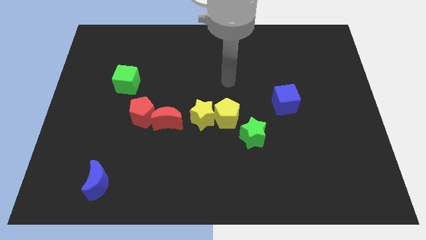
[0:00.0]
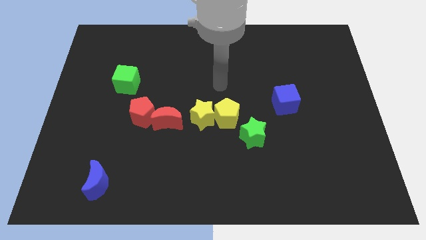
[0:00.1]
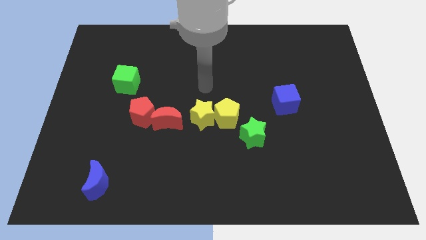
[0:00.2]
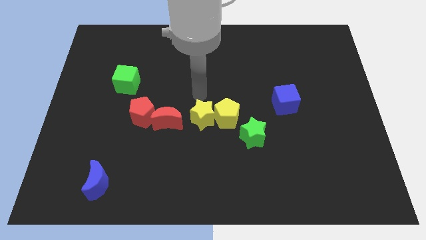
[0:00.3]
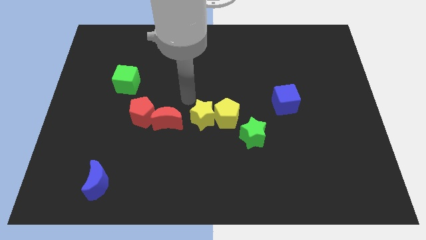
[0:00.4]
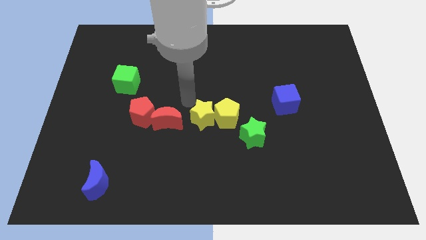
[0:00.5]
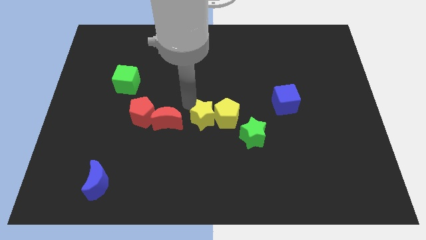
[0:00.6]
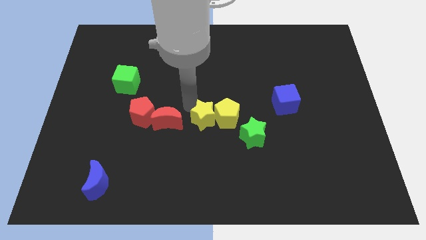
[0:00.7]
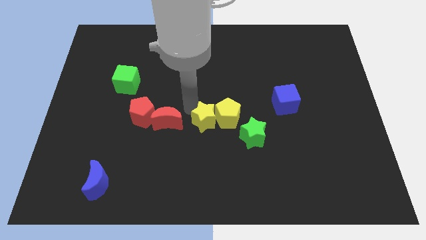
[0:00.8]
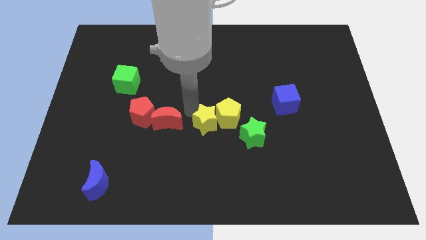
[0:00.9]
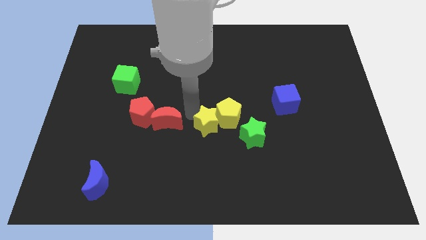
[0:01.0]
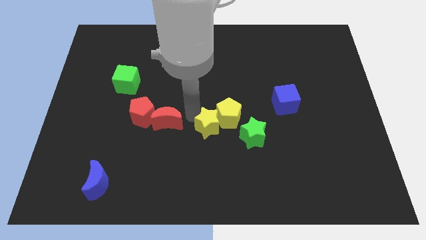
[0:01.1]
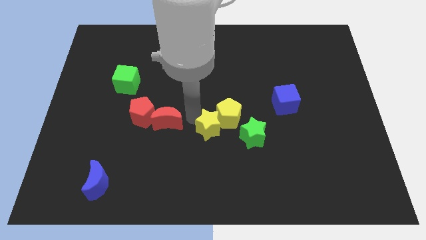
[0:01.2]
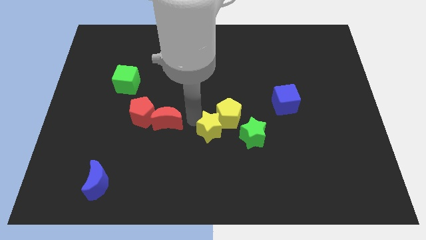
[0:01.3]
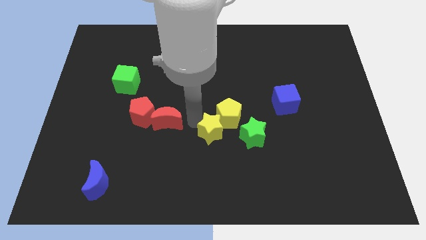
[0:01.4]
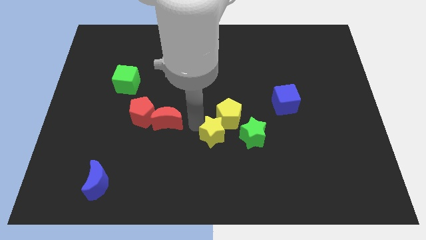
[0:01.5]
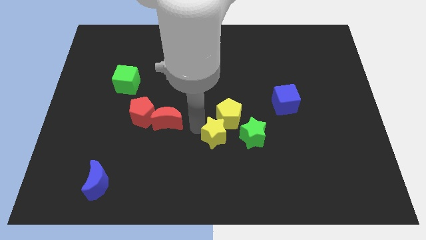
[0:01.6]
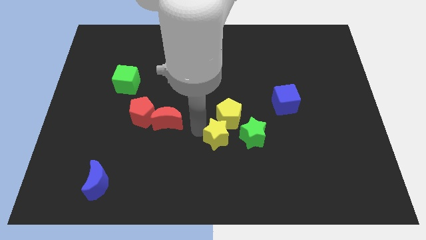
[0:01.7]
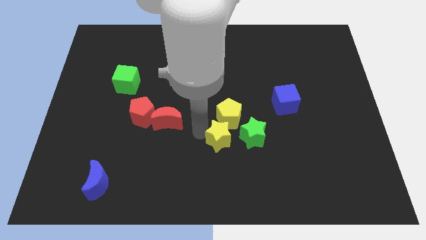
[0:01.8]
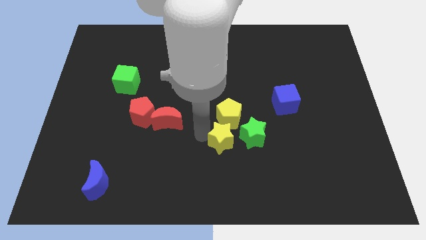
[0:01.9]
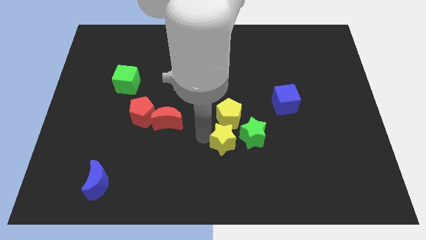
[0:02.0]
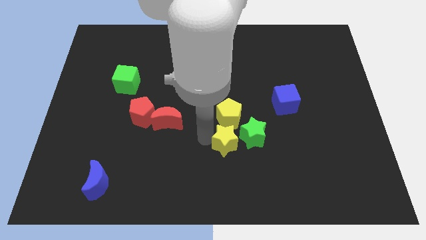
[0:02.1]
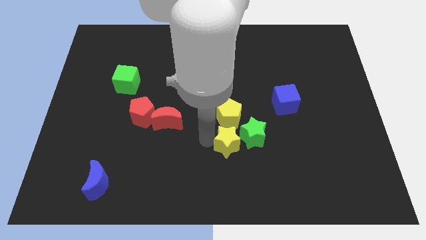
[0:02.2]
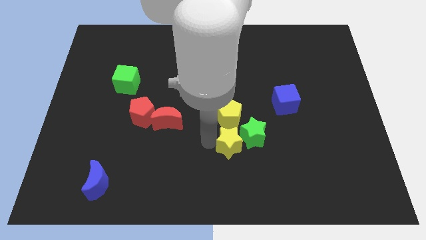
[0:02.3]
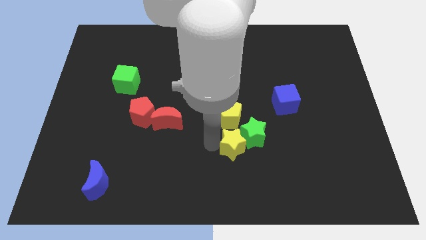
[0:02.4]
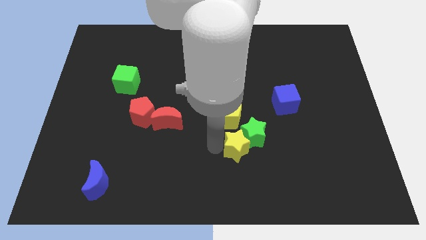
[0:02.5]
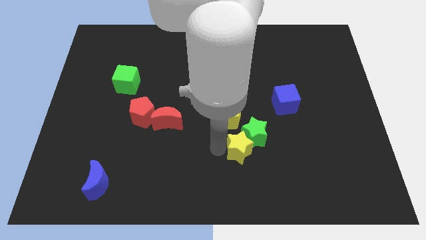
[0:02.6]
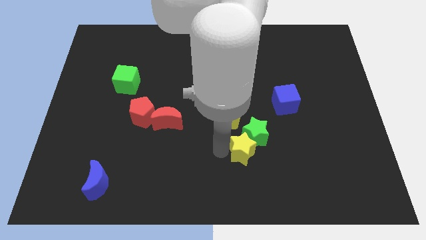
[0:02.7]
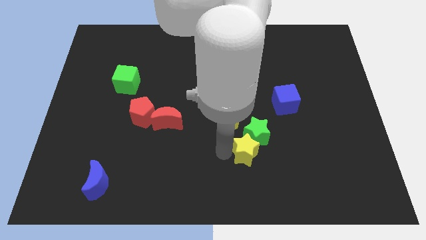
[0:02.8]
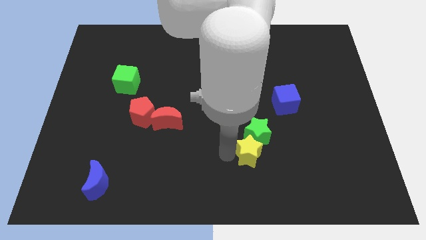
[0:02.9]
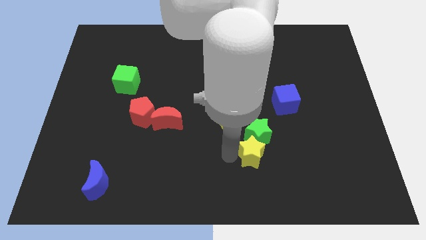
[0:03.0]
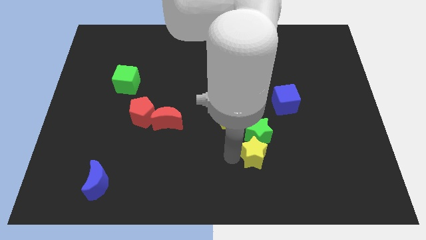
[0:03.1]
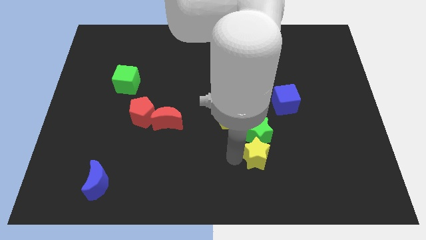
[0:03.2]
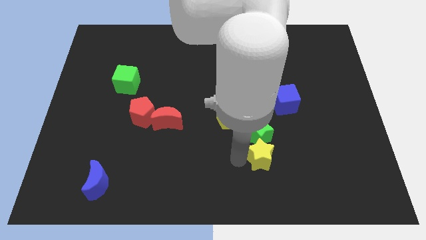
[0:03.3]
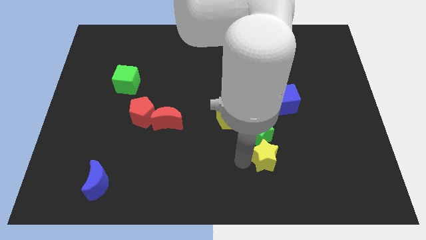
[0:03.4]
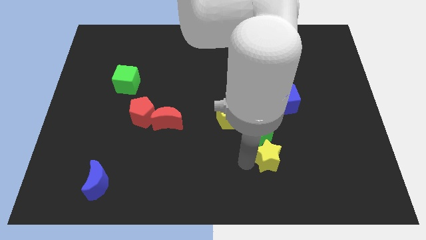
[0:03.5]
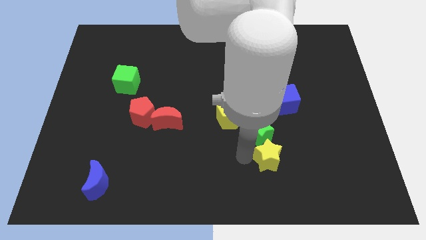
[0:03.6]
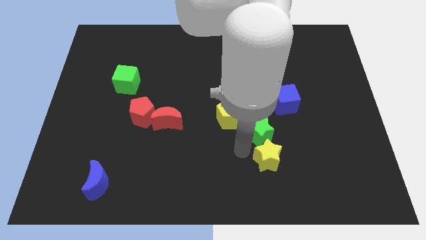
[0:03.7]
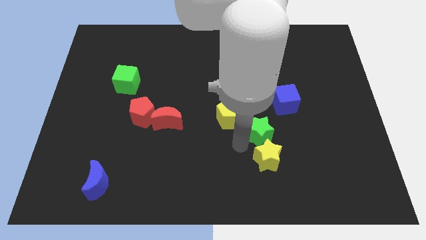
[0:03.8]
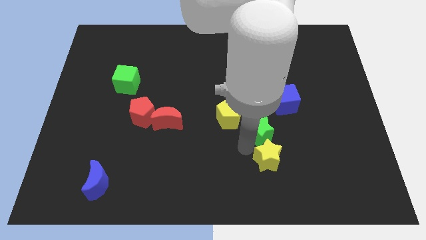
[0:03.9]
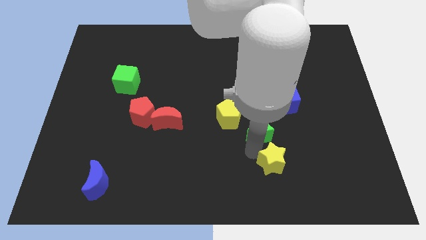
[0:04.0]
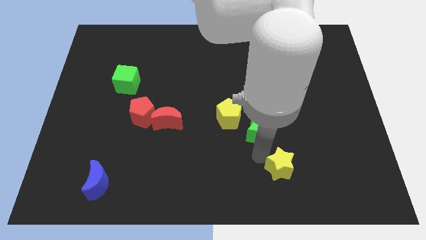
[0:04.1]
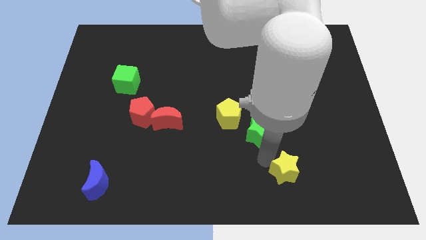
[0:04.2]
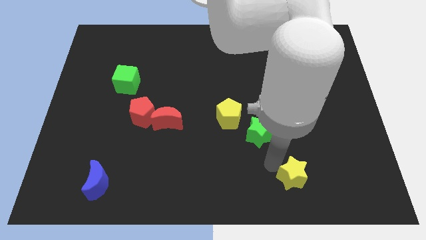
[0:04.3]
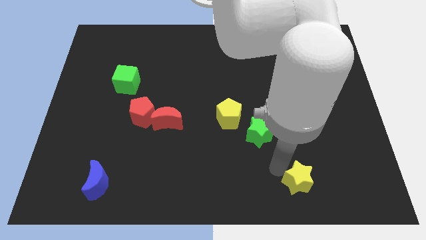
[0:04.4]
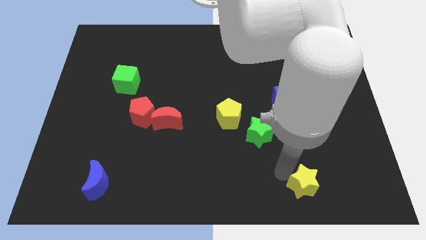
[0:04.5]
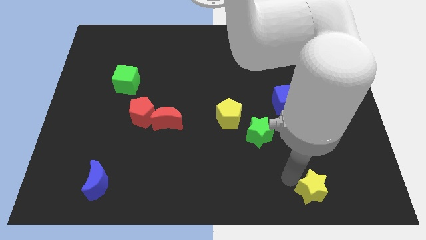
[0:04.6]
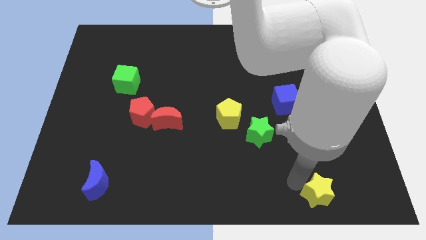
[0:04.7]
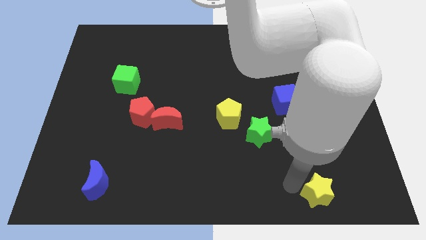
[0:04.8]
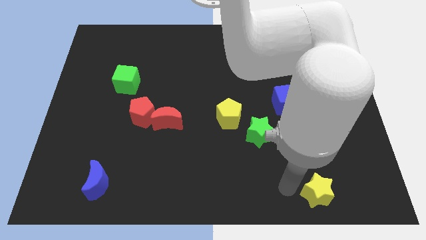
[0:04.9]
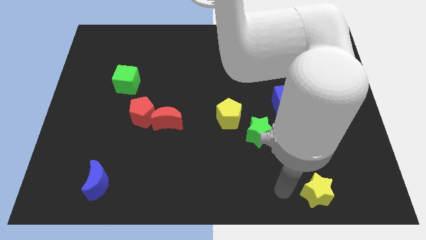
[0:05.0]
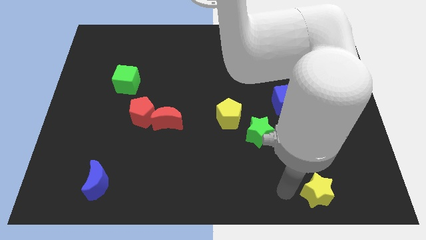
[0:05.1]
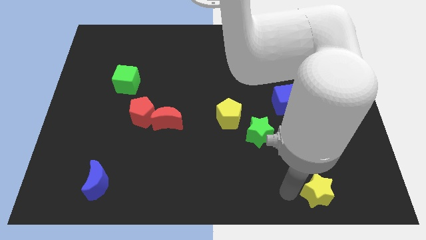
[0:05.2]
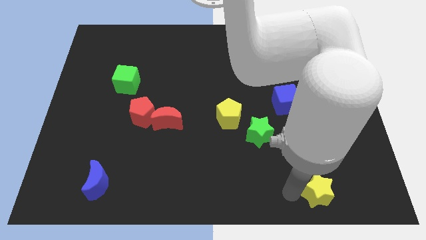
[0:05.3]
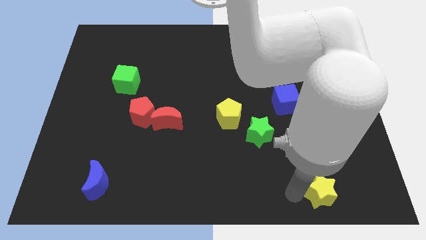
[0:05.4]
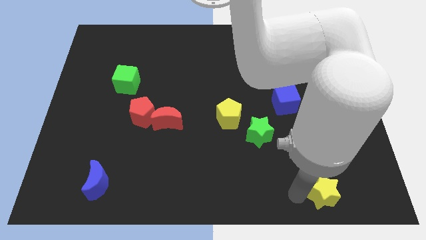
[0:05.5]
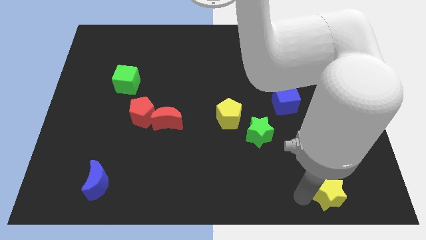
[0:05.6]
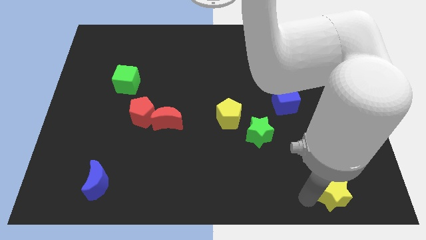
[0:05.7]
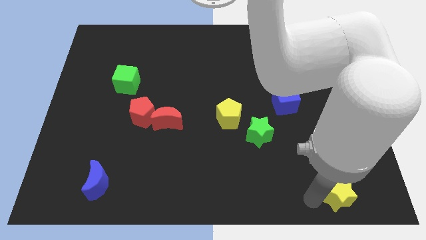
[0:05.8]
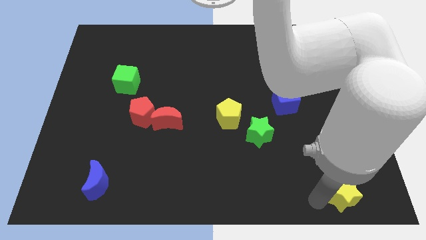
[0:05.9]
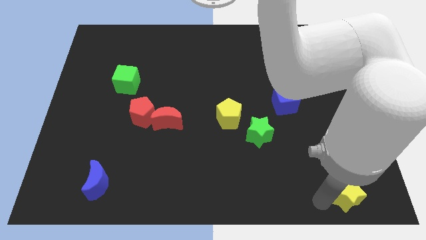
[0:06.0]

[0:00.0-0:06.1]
move the yellow star to the lower right corner

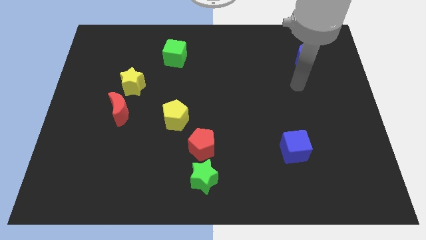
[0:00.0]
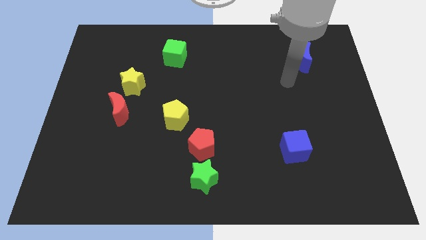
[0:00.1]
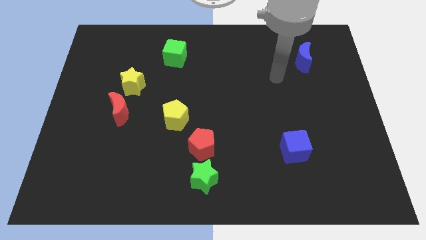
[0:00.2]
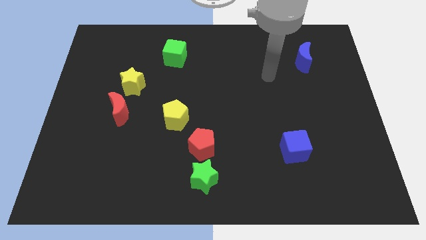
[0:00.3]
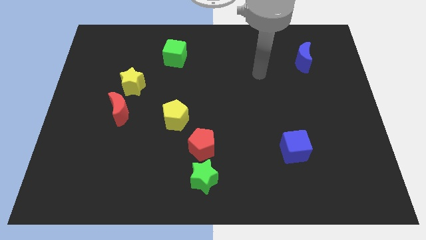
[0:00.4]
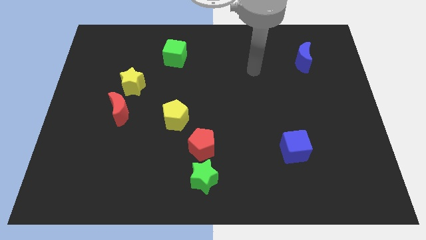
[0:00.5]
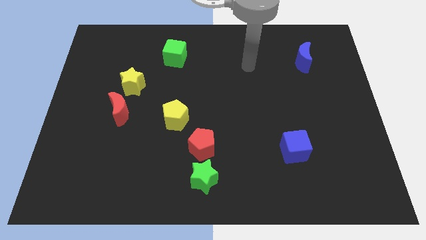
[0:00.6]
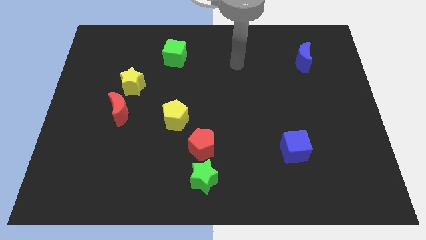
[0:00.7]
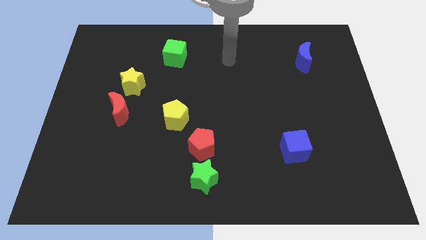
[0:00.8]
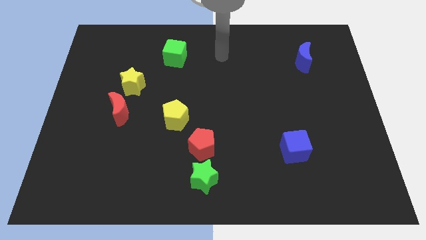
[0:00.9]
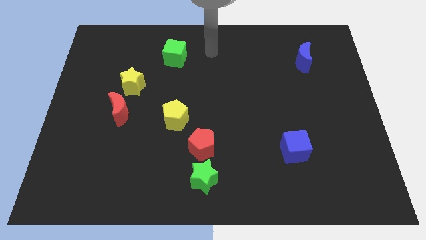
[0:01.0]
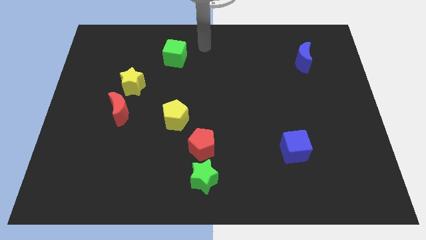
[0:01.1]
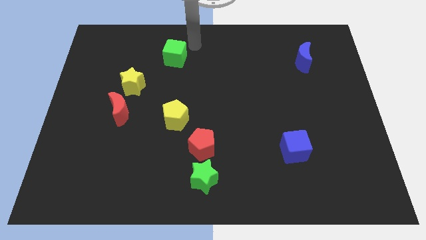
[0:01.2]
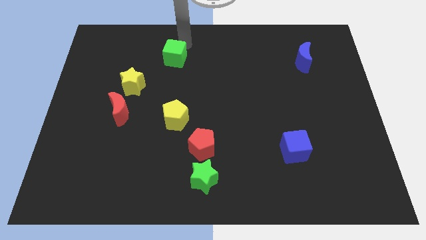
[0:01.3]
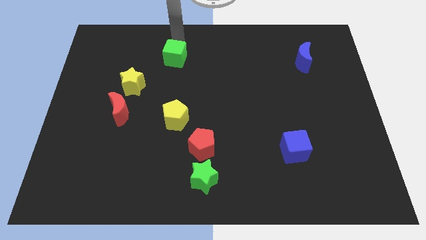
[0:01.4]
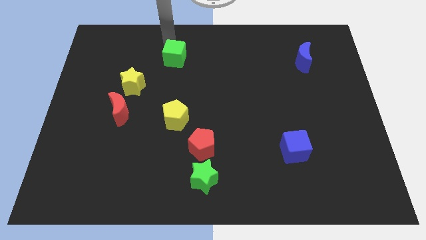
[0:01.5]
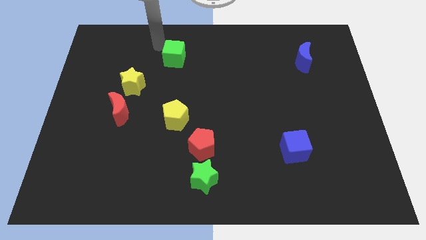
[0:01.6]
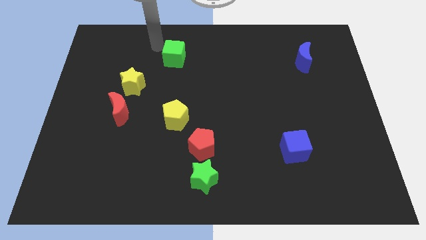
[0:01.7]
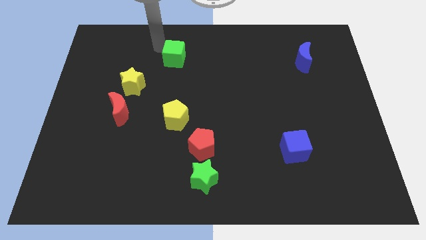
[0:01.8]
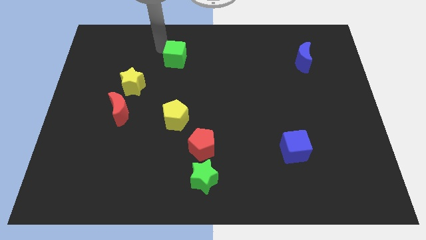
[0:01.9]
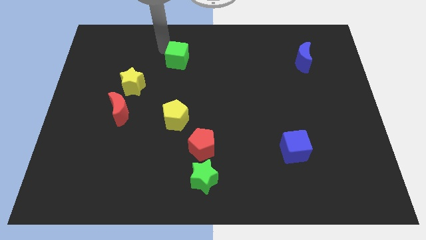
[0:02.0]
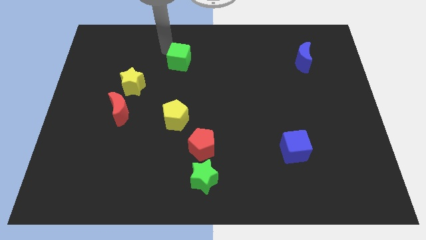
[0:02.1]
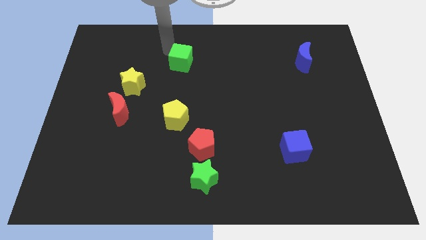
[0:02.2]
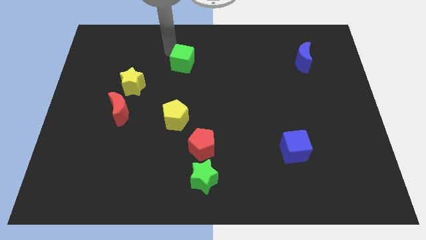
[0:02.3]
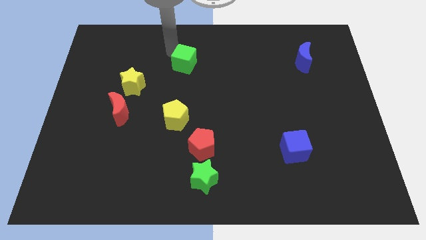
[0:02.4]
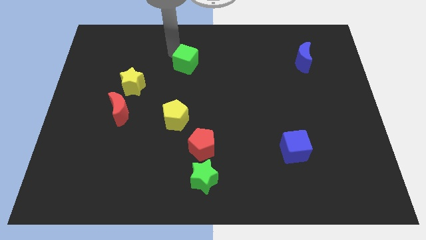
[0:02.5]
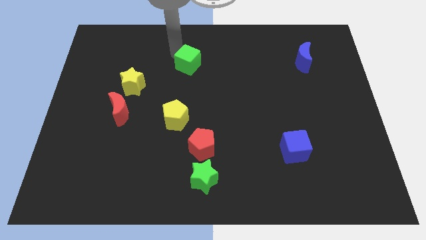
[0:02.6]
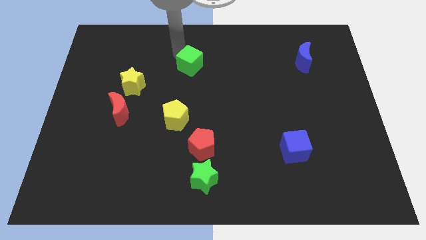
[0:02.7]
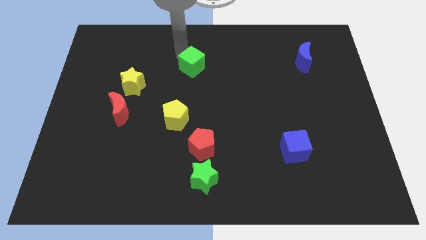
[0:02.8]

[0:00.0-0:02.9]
put the green cube to the center of the board
